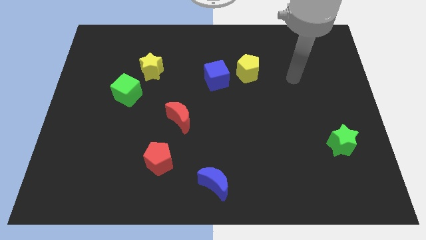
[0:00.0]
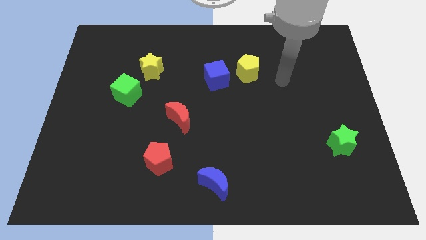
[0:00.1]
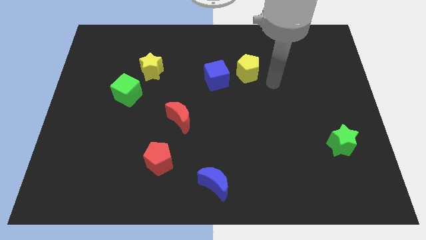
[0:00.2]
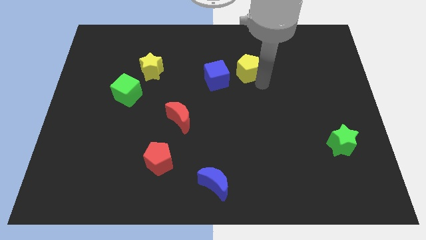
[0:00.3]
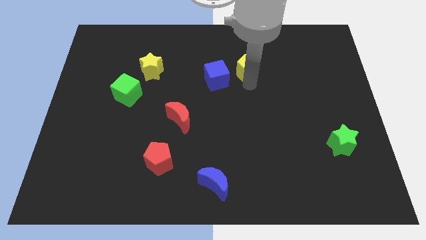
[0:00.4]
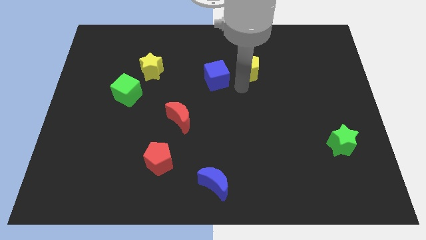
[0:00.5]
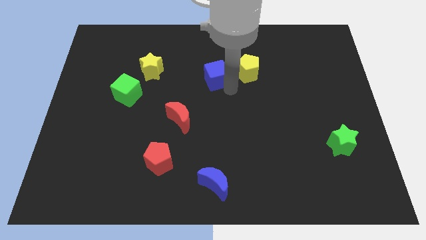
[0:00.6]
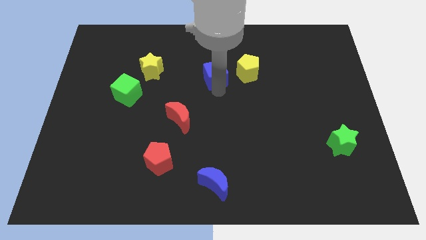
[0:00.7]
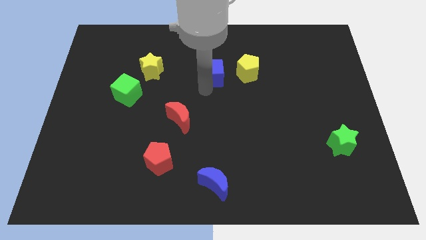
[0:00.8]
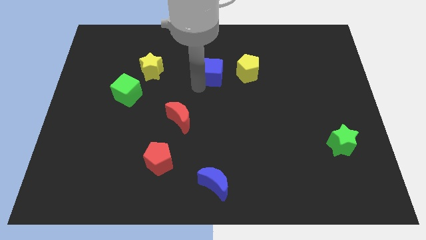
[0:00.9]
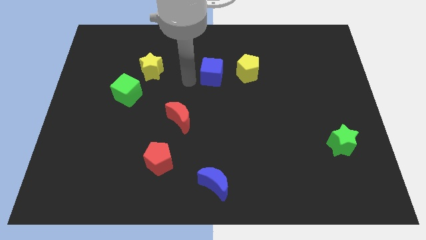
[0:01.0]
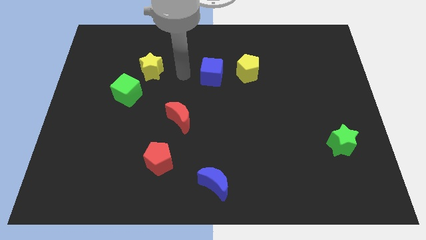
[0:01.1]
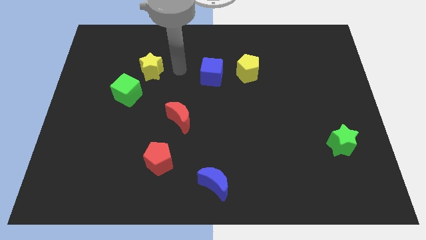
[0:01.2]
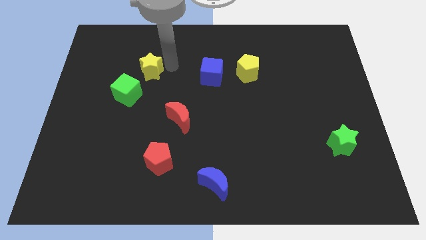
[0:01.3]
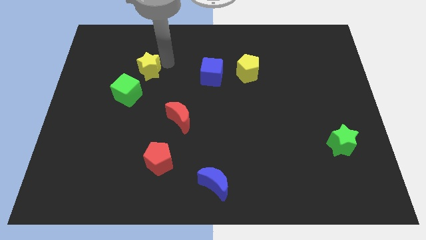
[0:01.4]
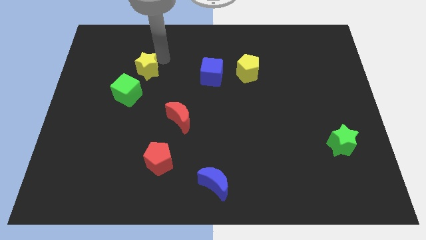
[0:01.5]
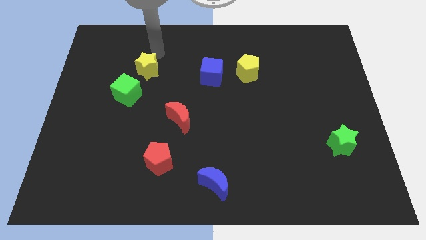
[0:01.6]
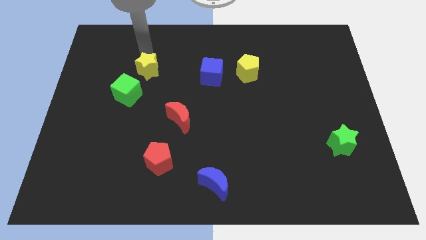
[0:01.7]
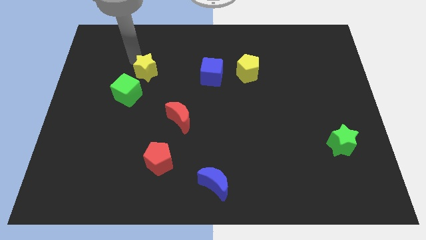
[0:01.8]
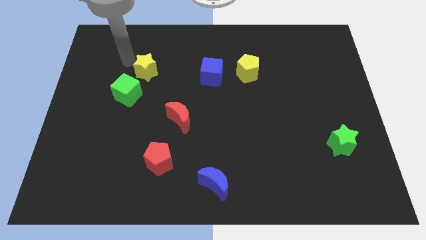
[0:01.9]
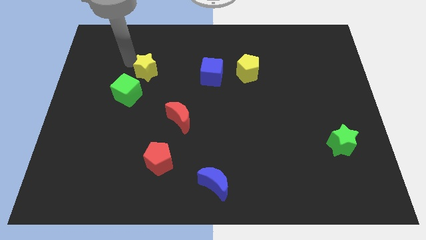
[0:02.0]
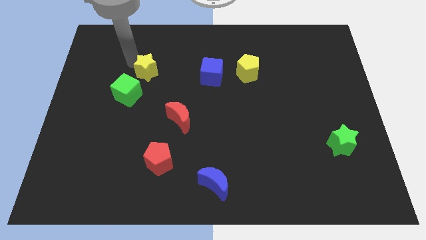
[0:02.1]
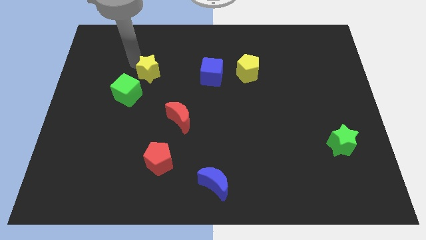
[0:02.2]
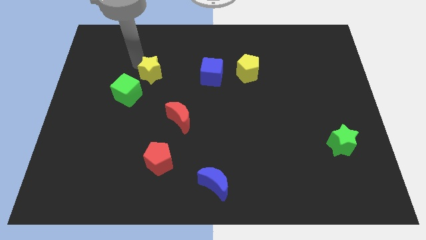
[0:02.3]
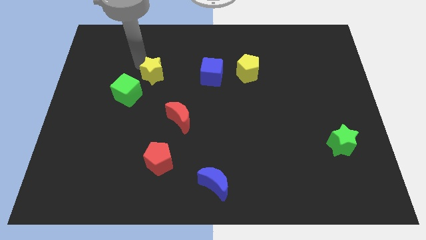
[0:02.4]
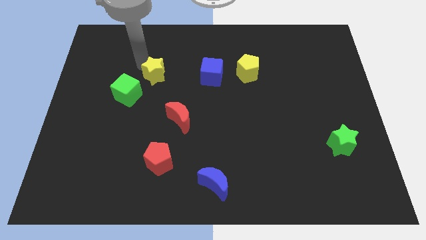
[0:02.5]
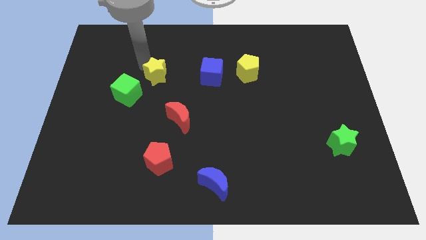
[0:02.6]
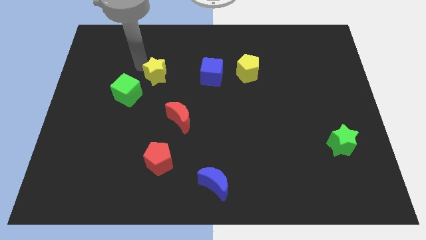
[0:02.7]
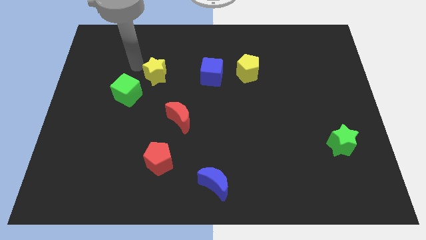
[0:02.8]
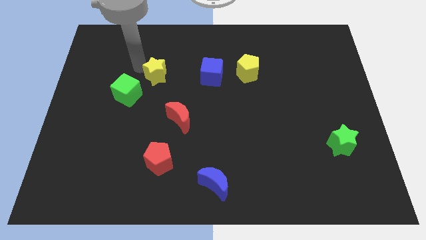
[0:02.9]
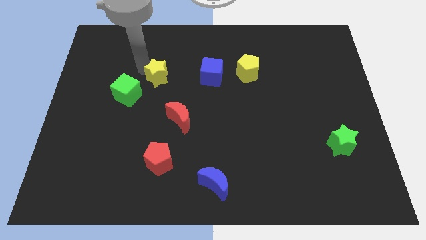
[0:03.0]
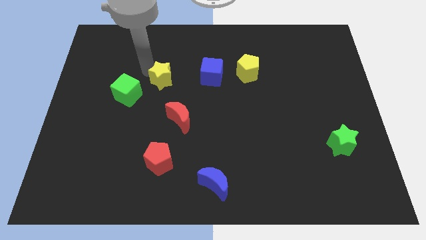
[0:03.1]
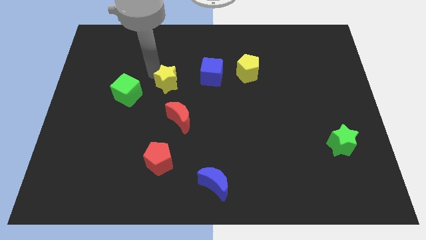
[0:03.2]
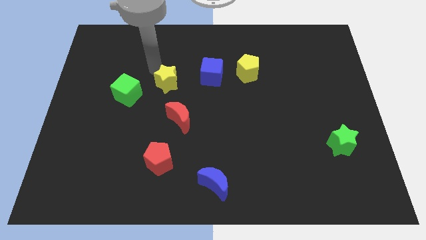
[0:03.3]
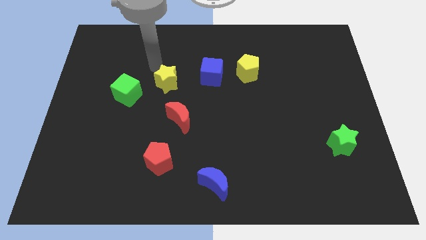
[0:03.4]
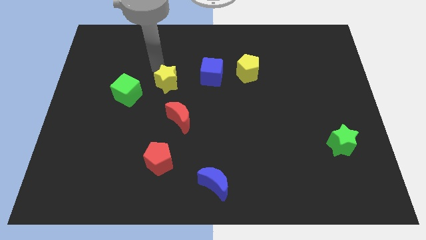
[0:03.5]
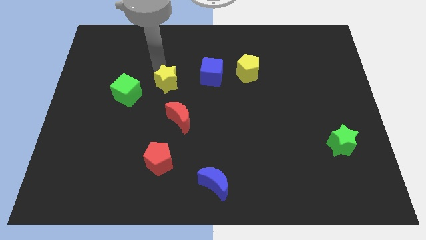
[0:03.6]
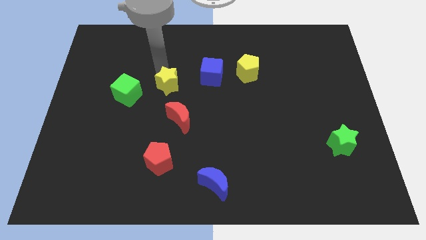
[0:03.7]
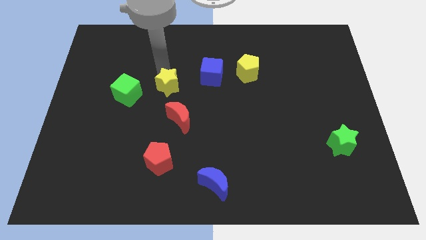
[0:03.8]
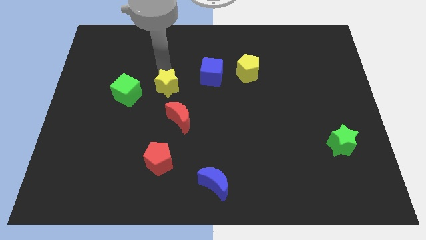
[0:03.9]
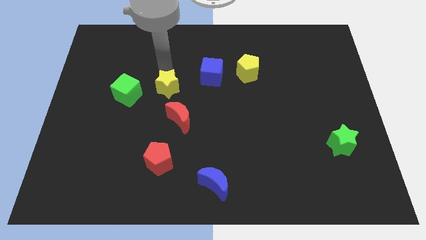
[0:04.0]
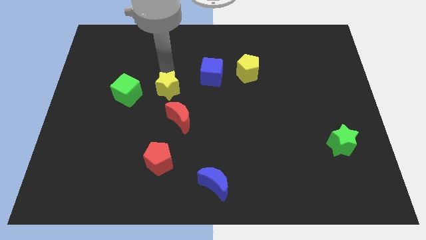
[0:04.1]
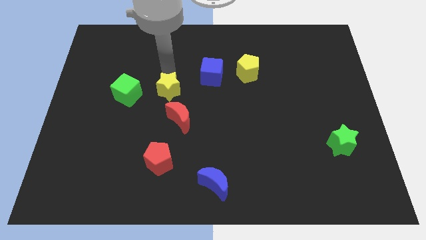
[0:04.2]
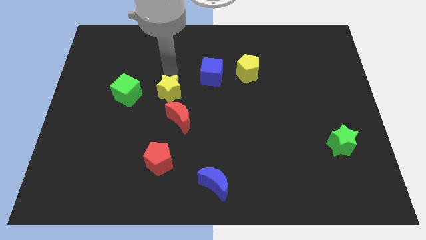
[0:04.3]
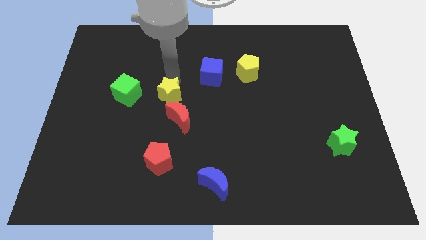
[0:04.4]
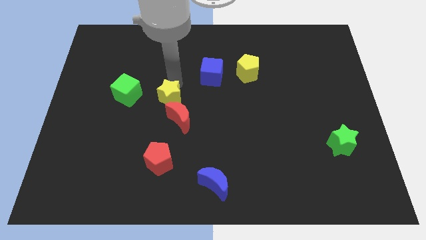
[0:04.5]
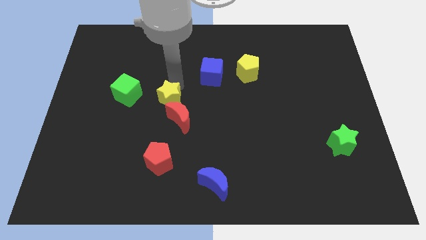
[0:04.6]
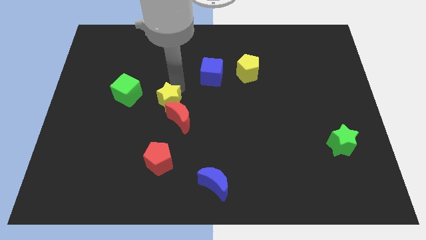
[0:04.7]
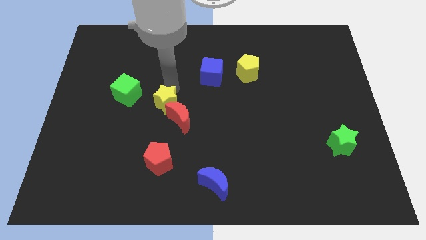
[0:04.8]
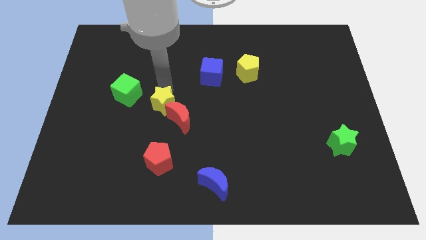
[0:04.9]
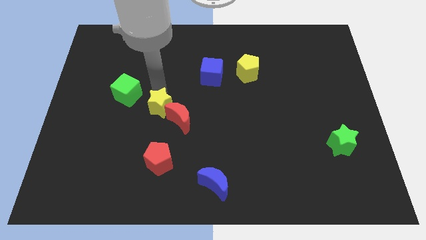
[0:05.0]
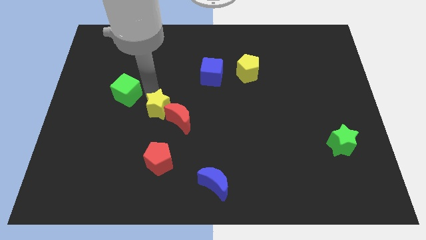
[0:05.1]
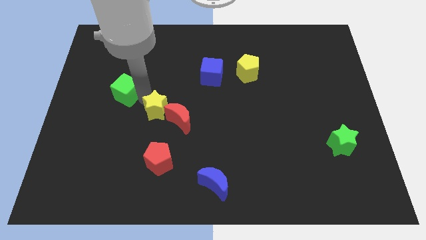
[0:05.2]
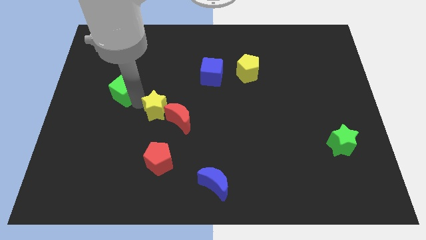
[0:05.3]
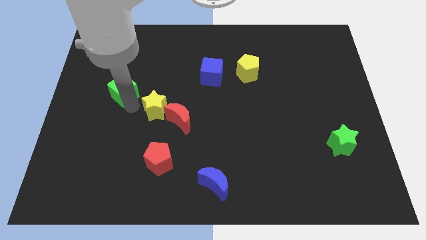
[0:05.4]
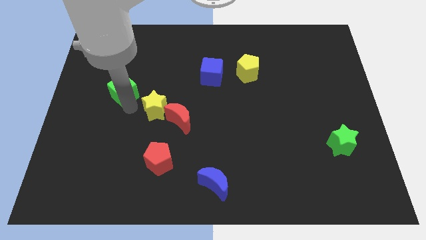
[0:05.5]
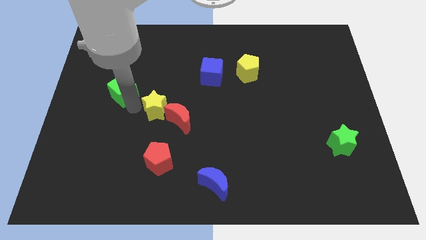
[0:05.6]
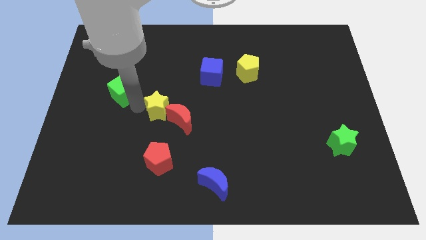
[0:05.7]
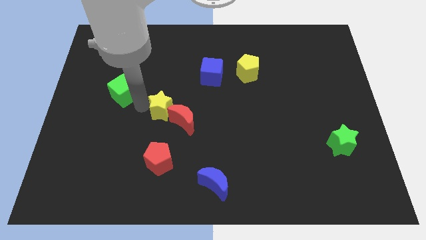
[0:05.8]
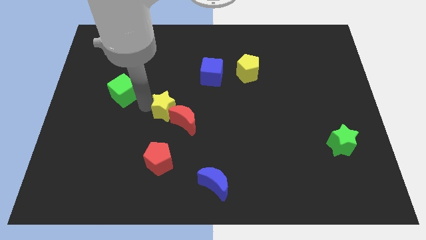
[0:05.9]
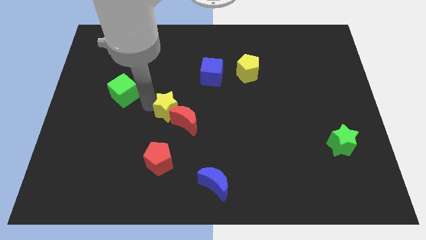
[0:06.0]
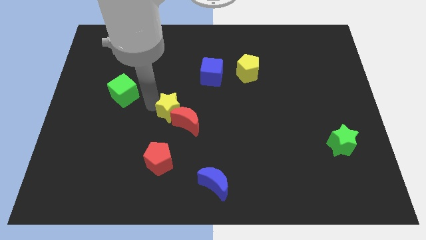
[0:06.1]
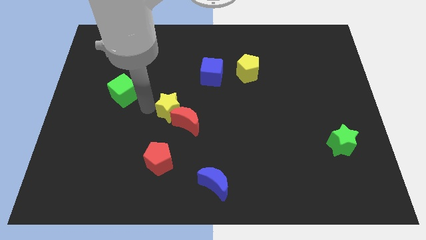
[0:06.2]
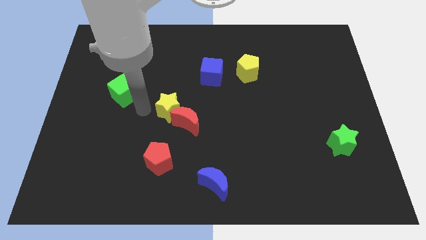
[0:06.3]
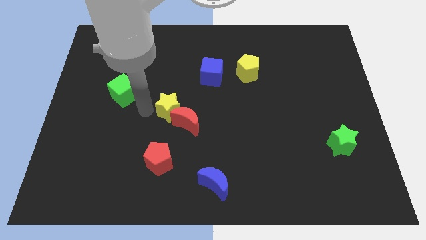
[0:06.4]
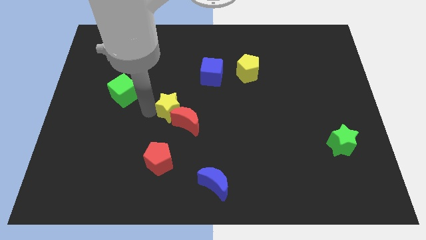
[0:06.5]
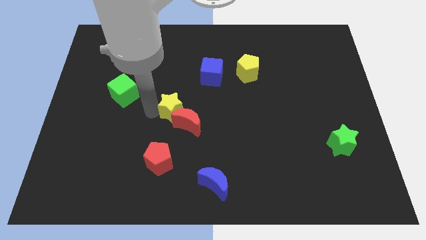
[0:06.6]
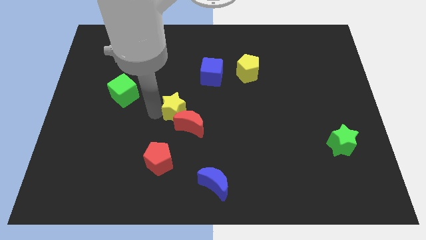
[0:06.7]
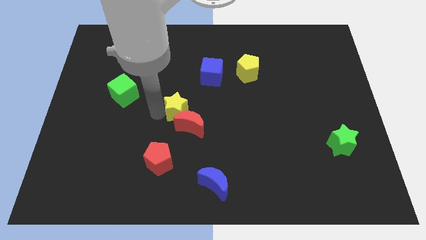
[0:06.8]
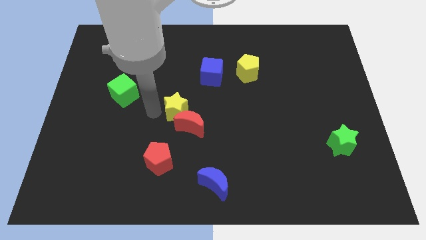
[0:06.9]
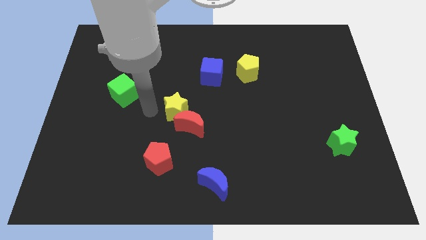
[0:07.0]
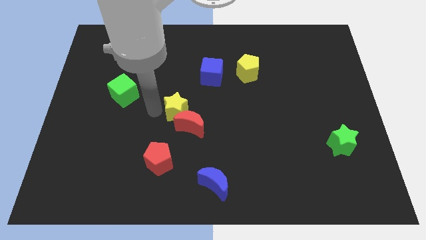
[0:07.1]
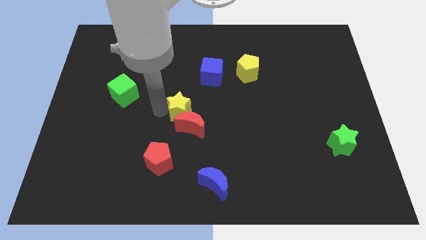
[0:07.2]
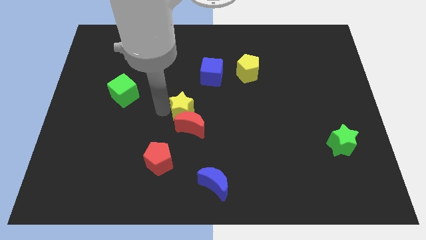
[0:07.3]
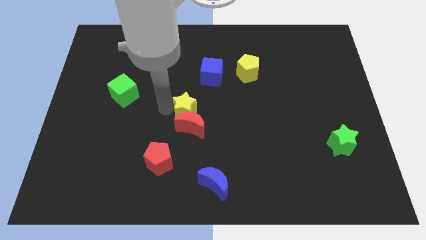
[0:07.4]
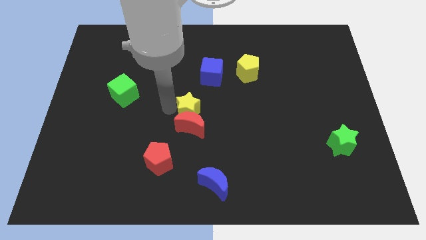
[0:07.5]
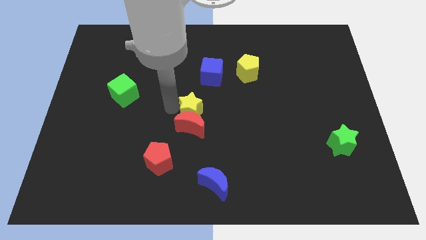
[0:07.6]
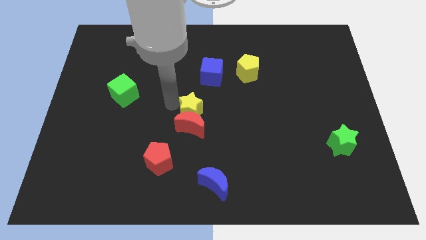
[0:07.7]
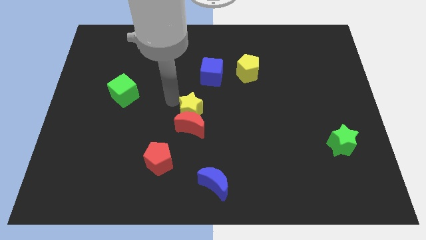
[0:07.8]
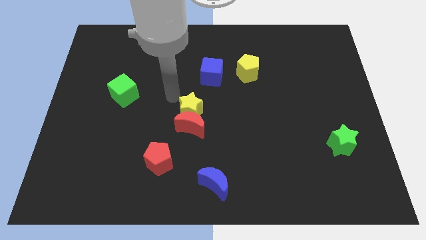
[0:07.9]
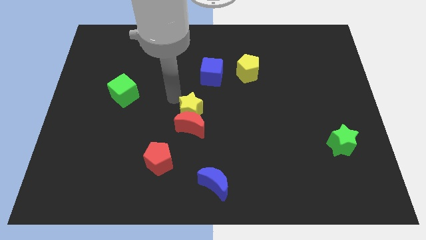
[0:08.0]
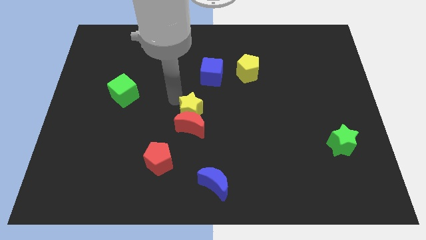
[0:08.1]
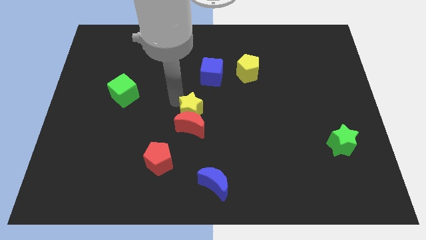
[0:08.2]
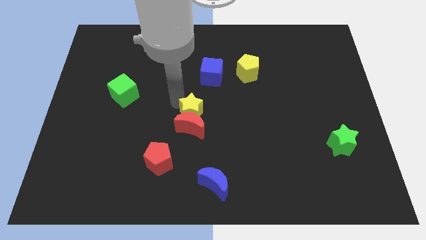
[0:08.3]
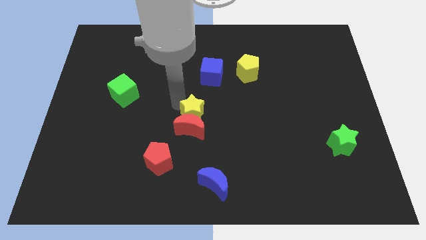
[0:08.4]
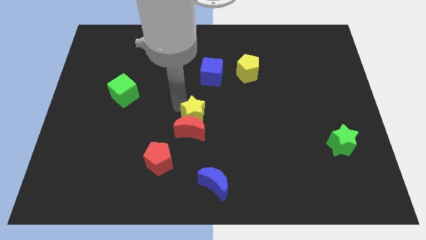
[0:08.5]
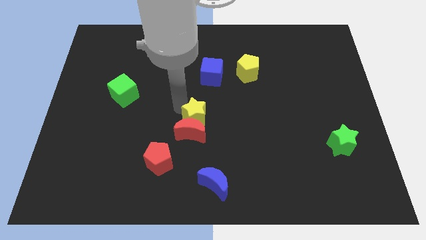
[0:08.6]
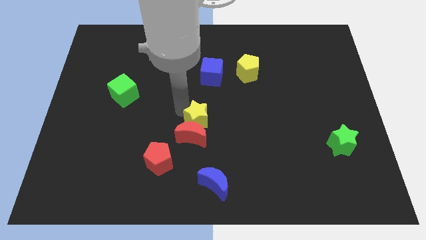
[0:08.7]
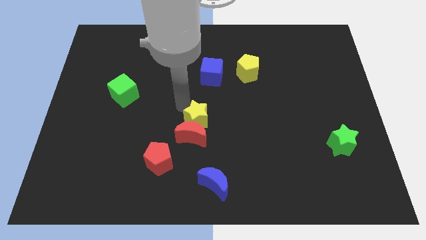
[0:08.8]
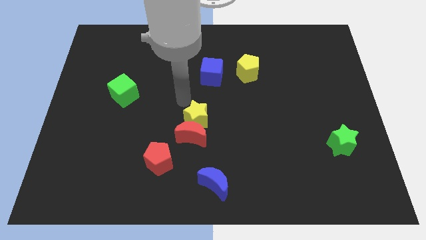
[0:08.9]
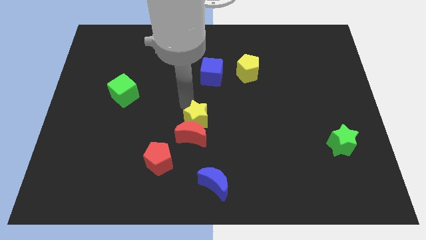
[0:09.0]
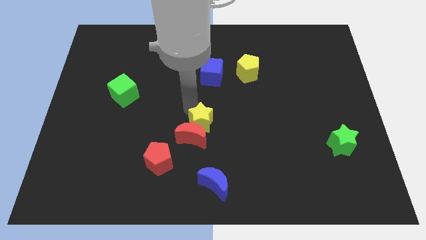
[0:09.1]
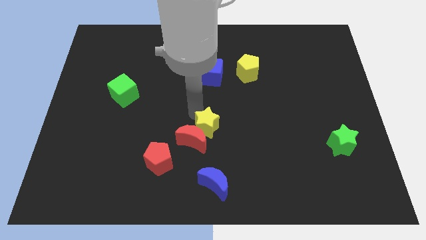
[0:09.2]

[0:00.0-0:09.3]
slide the yellow star to the top side of the blue moon
